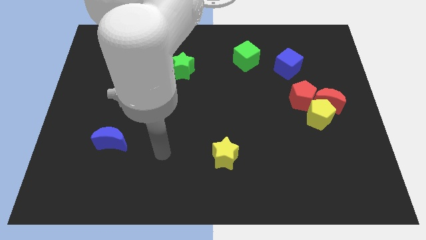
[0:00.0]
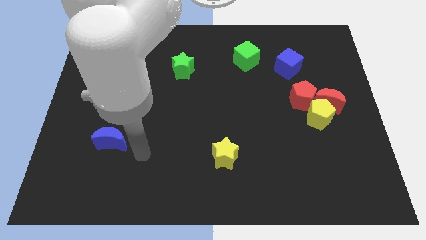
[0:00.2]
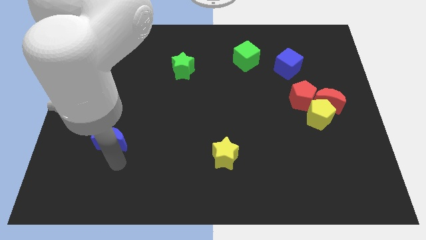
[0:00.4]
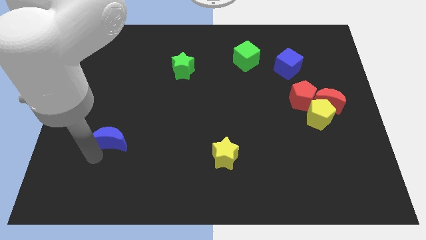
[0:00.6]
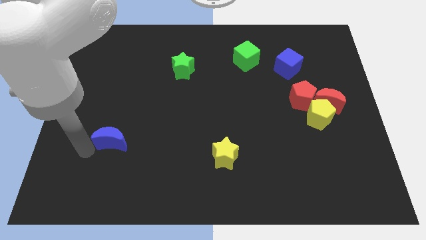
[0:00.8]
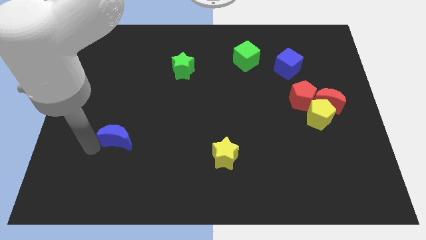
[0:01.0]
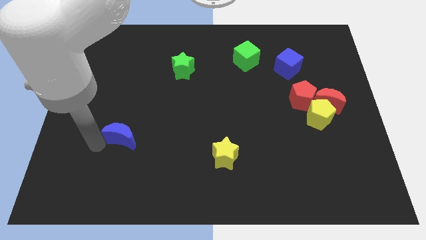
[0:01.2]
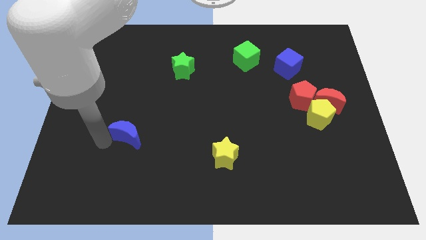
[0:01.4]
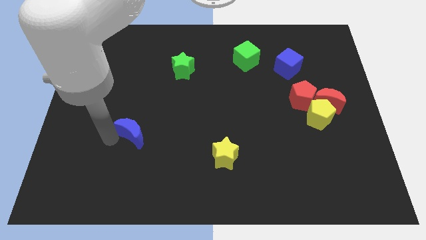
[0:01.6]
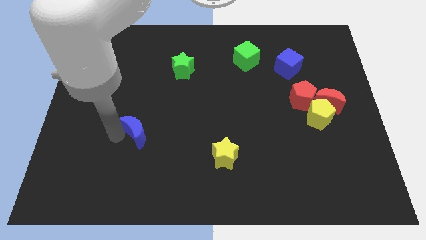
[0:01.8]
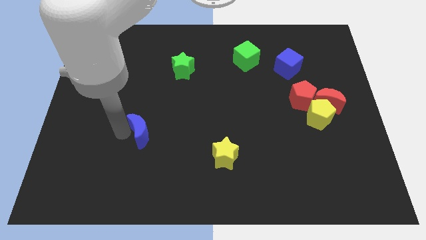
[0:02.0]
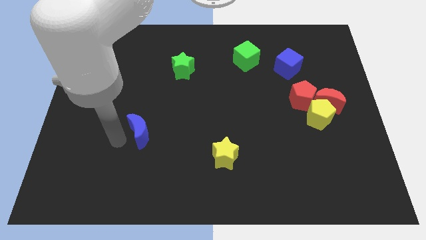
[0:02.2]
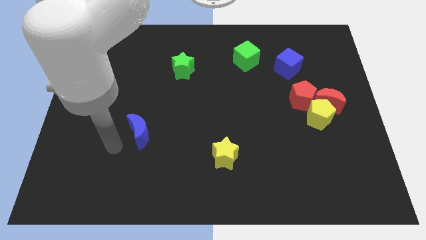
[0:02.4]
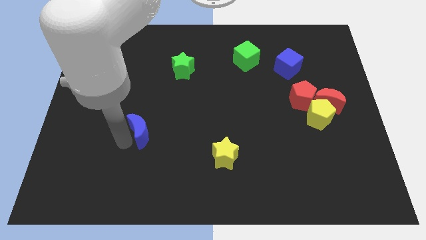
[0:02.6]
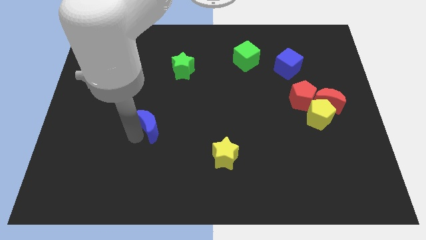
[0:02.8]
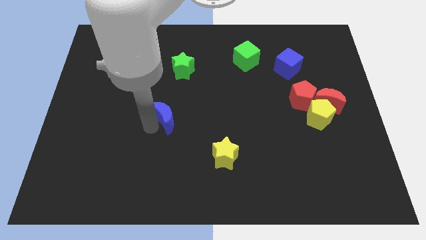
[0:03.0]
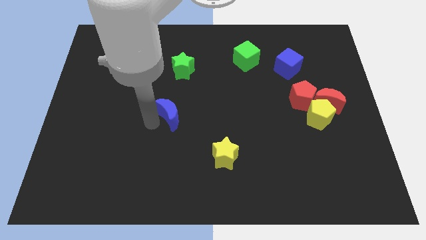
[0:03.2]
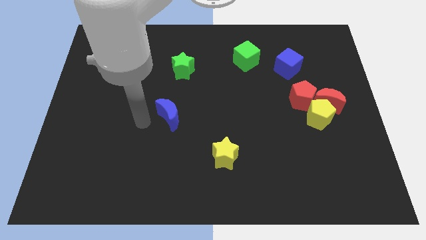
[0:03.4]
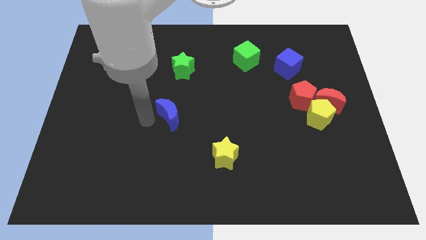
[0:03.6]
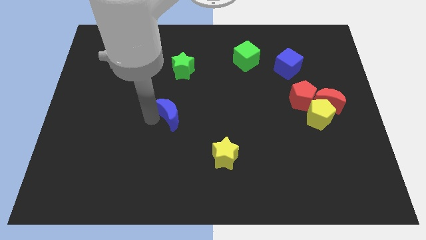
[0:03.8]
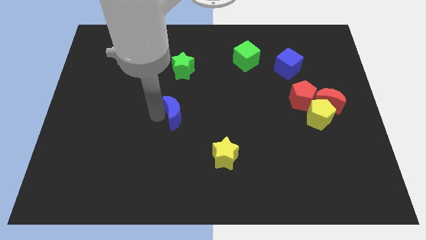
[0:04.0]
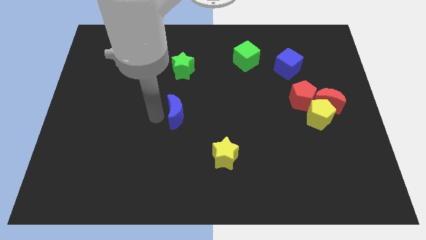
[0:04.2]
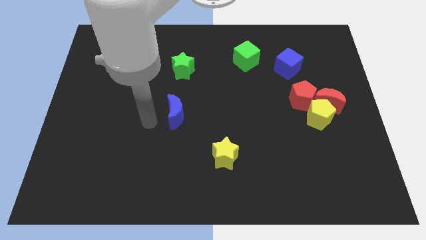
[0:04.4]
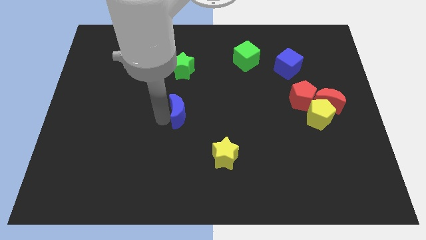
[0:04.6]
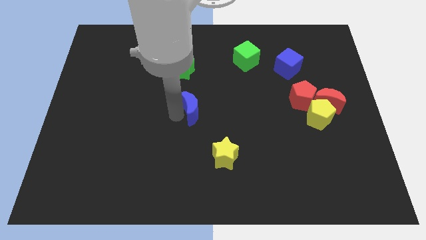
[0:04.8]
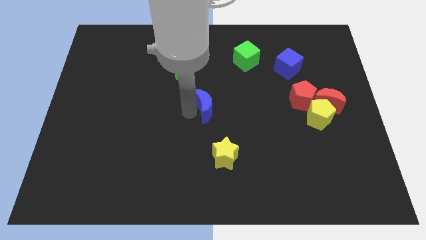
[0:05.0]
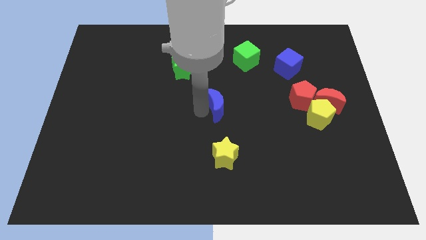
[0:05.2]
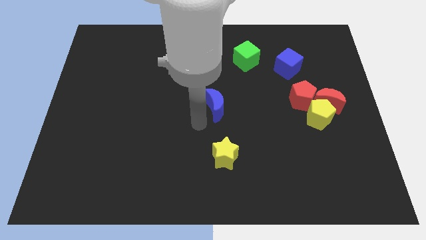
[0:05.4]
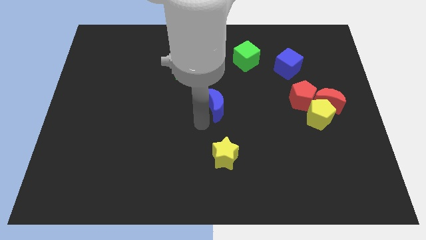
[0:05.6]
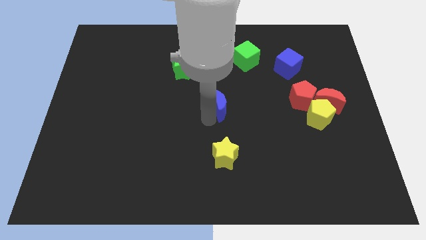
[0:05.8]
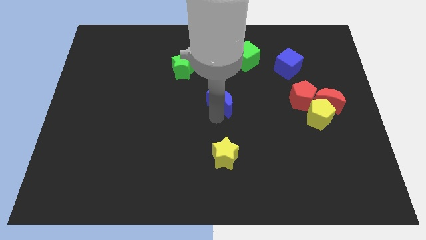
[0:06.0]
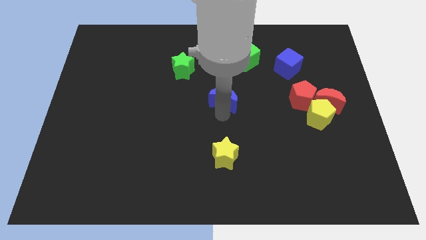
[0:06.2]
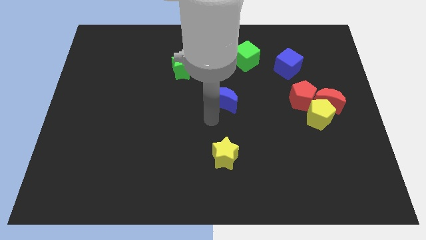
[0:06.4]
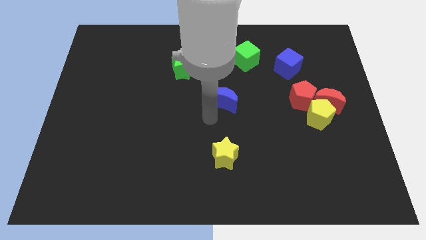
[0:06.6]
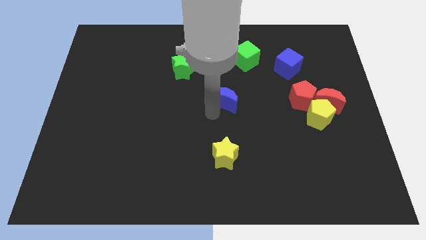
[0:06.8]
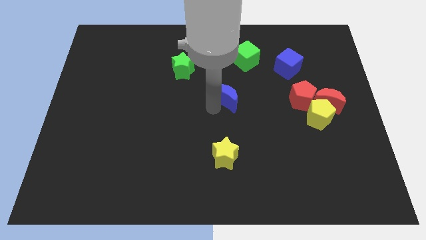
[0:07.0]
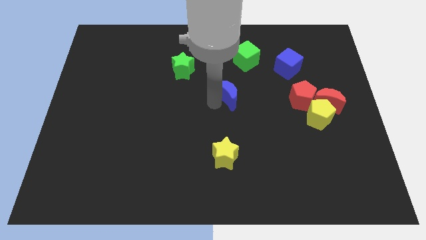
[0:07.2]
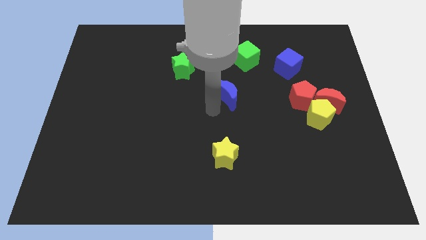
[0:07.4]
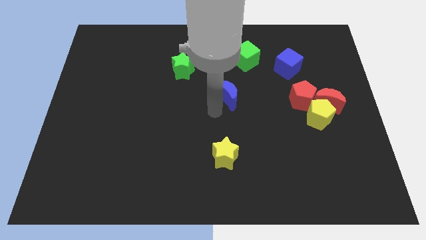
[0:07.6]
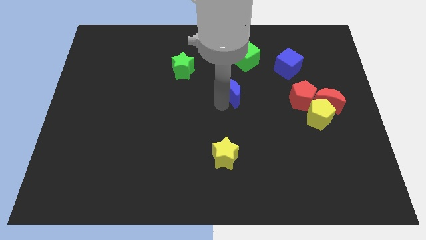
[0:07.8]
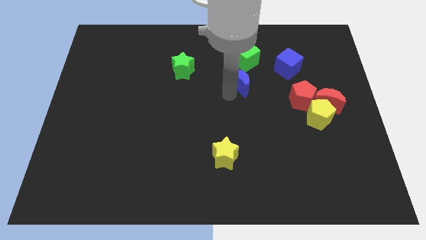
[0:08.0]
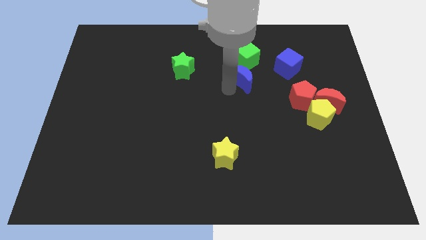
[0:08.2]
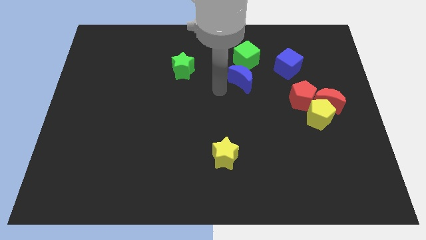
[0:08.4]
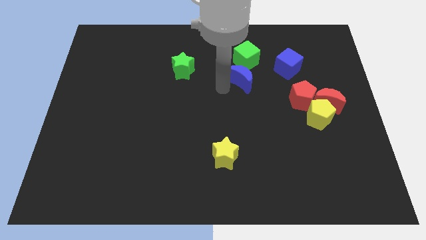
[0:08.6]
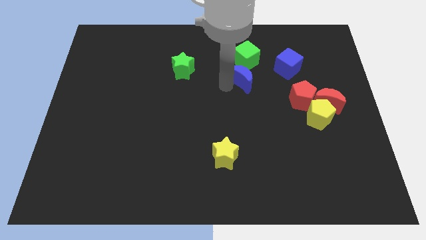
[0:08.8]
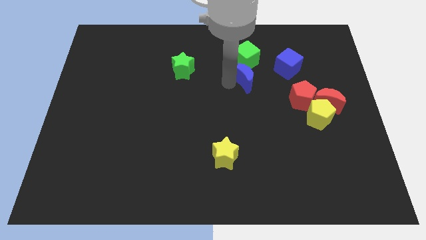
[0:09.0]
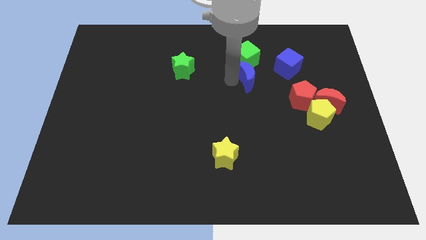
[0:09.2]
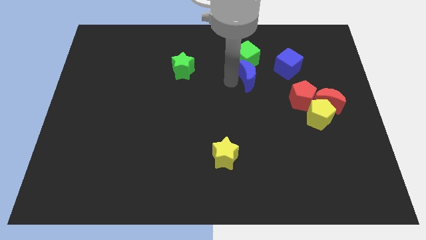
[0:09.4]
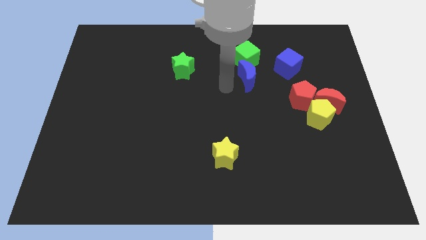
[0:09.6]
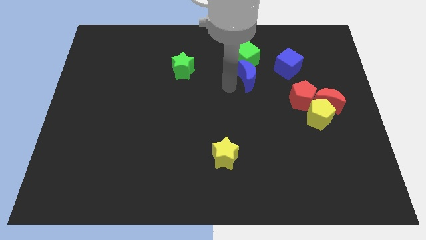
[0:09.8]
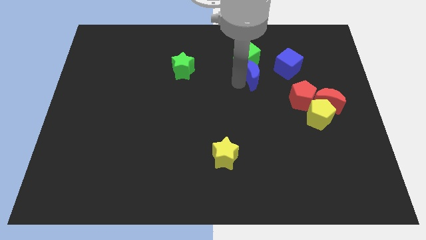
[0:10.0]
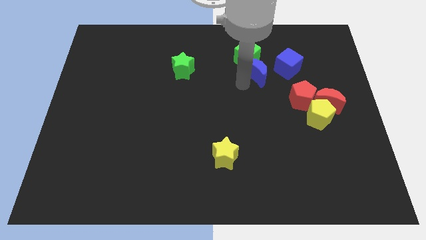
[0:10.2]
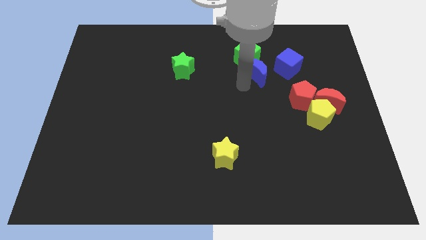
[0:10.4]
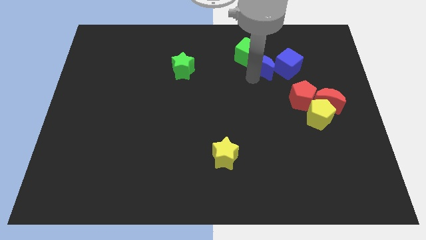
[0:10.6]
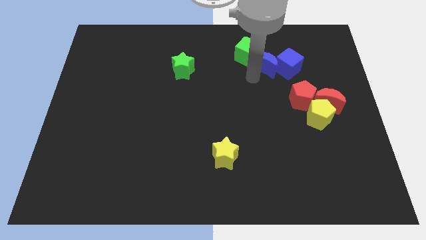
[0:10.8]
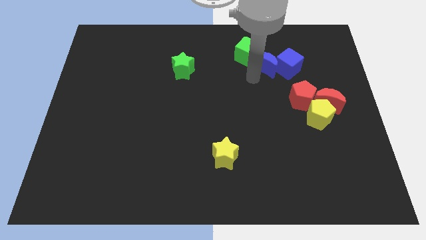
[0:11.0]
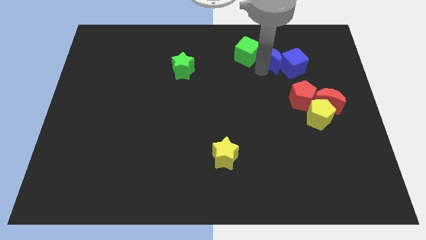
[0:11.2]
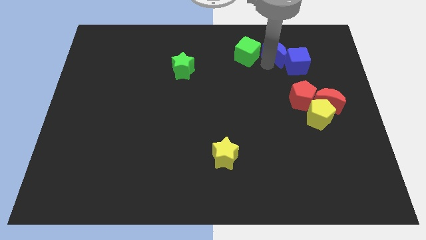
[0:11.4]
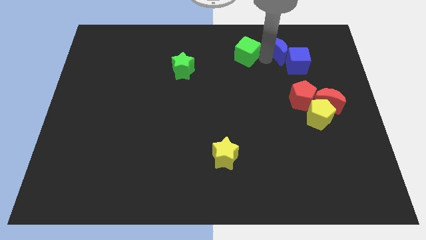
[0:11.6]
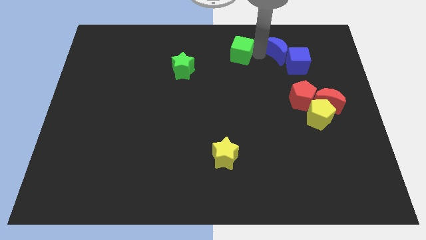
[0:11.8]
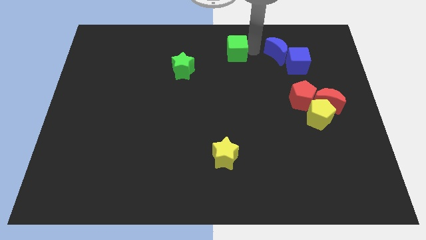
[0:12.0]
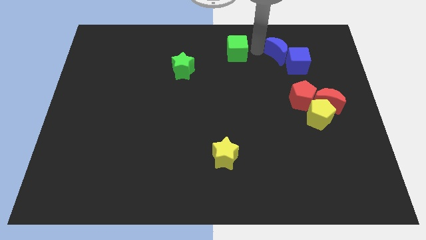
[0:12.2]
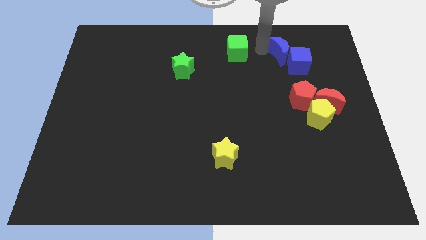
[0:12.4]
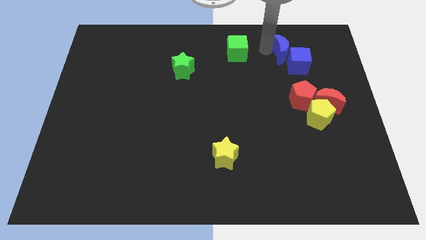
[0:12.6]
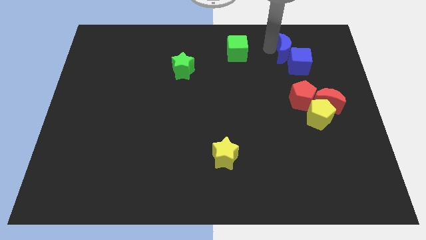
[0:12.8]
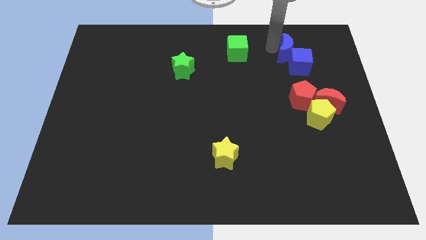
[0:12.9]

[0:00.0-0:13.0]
push the blue moon to the top side of the red pentagon

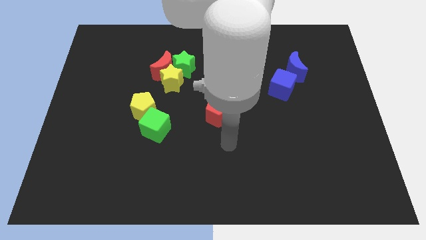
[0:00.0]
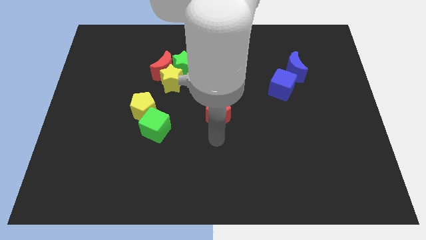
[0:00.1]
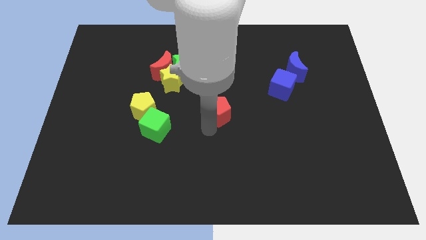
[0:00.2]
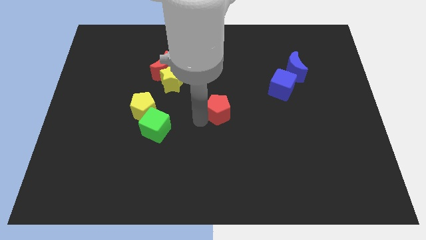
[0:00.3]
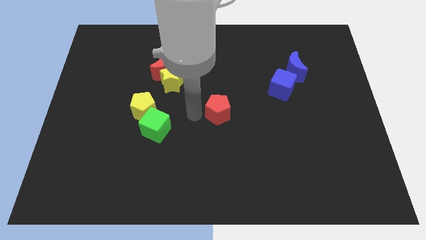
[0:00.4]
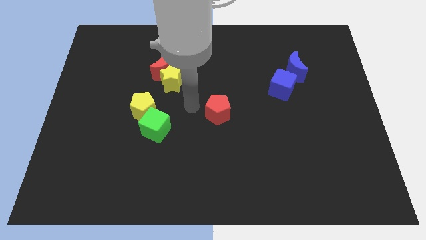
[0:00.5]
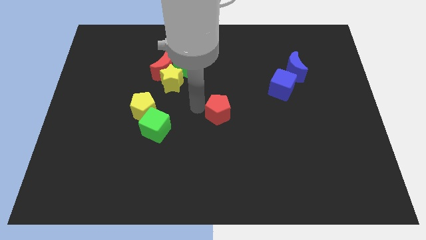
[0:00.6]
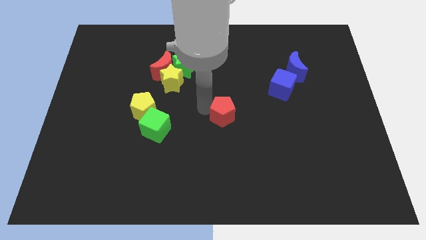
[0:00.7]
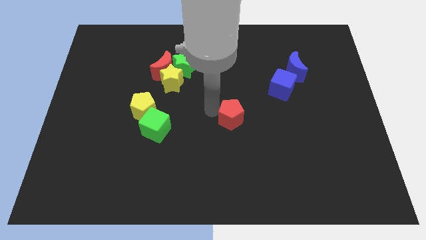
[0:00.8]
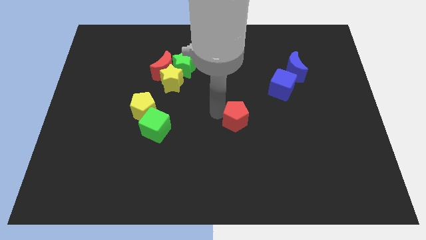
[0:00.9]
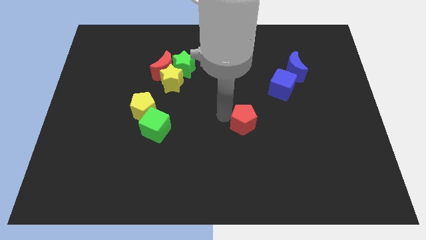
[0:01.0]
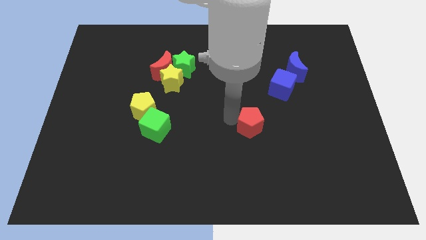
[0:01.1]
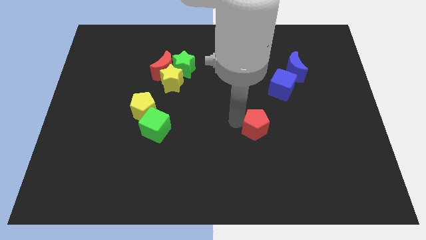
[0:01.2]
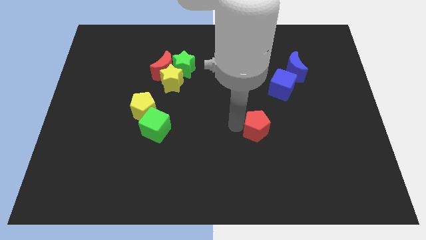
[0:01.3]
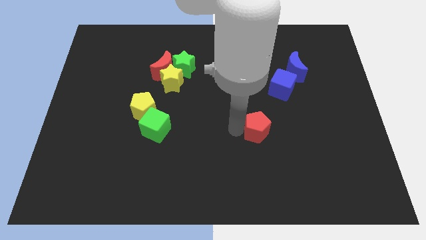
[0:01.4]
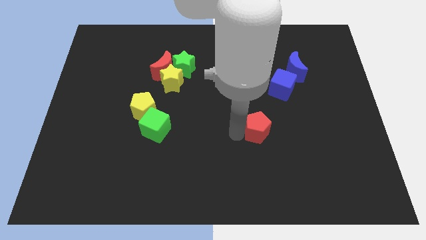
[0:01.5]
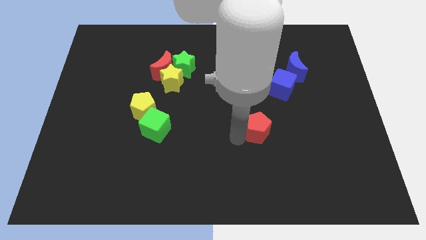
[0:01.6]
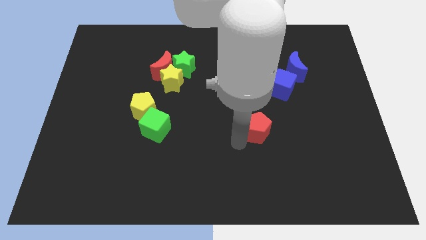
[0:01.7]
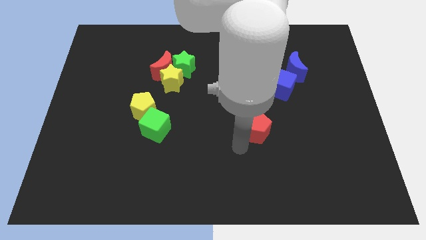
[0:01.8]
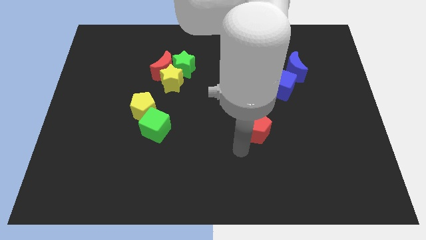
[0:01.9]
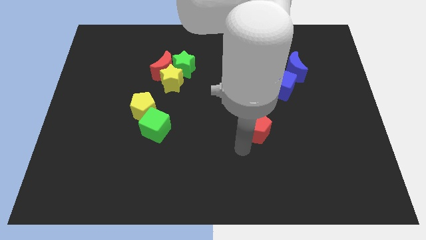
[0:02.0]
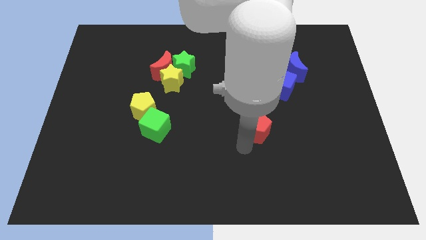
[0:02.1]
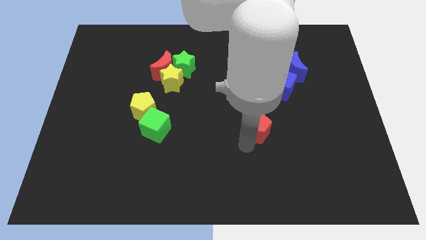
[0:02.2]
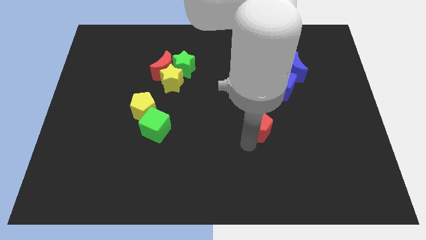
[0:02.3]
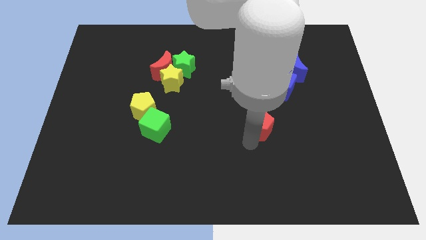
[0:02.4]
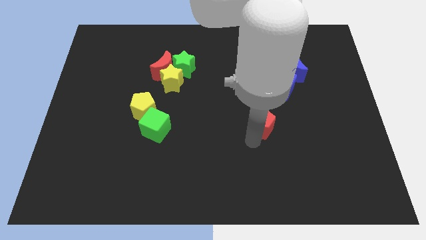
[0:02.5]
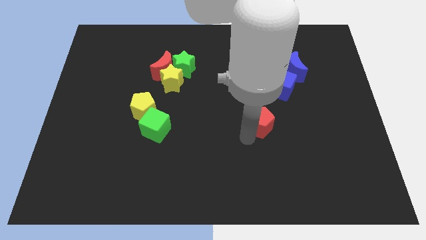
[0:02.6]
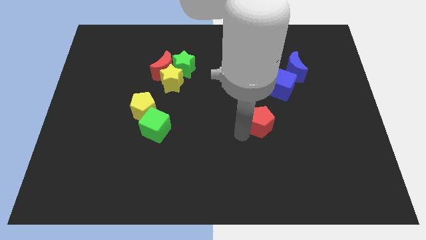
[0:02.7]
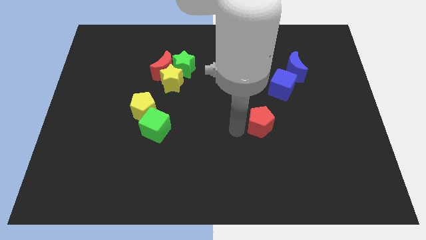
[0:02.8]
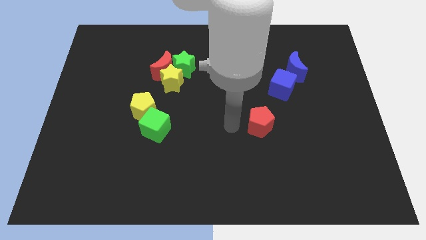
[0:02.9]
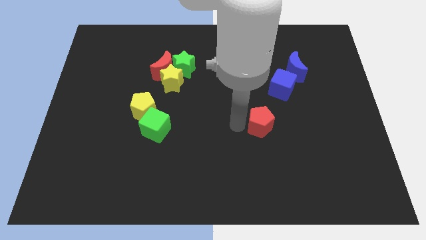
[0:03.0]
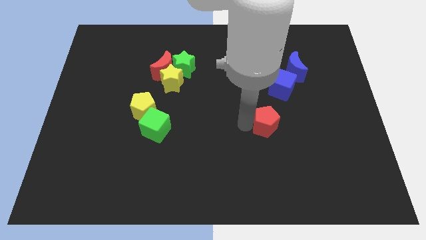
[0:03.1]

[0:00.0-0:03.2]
put the red pentagon to the bottom side of the blue cube
